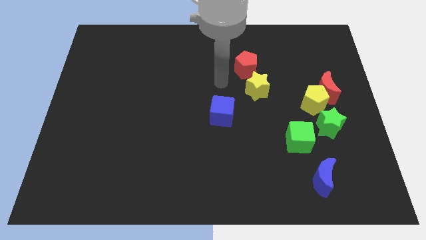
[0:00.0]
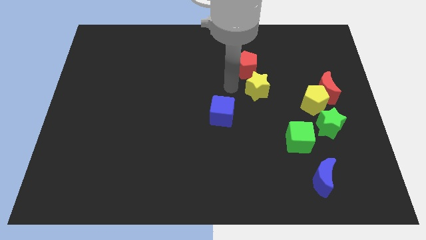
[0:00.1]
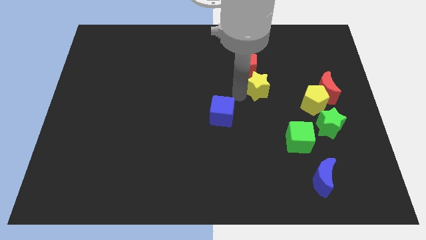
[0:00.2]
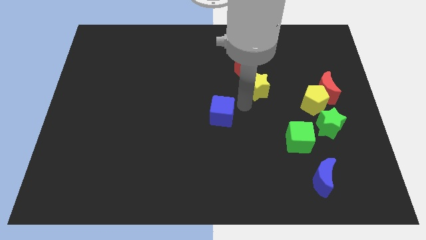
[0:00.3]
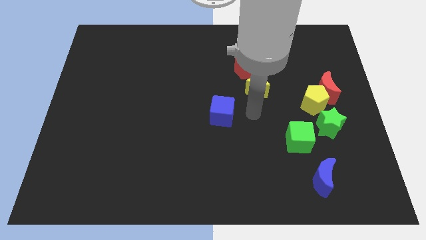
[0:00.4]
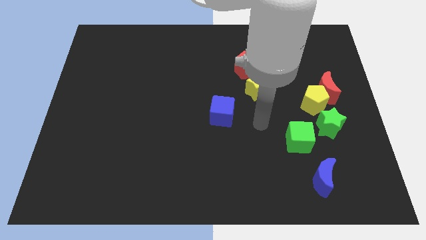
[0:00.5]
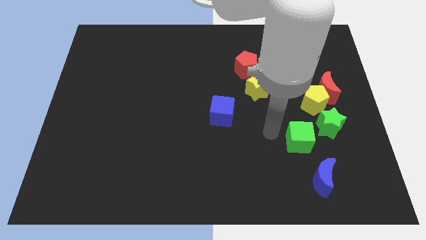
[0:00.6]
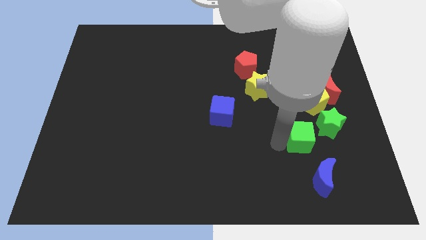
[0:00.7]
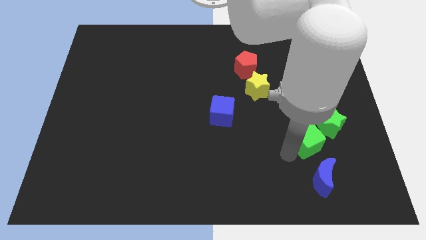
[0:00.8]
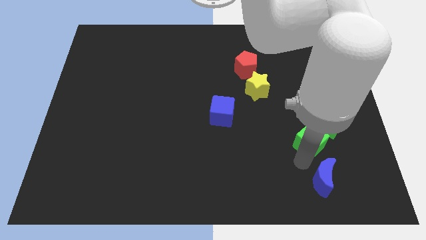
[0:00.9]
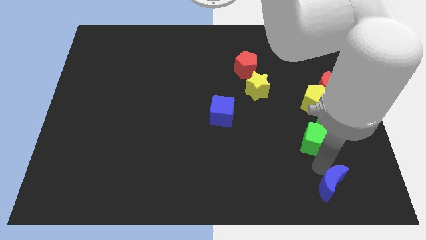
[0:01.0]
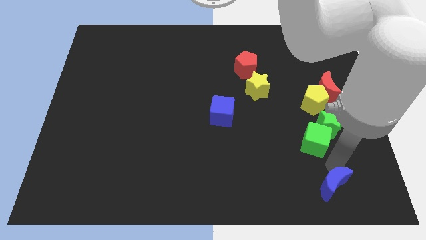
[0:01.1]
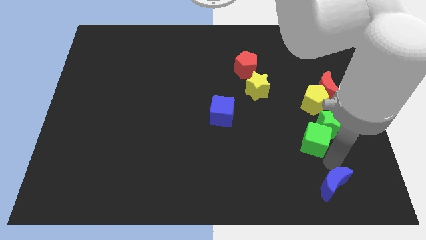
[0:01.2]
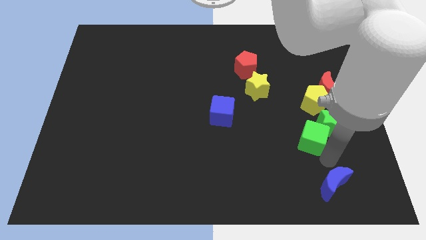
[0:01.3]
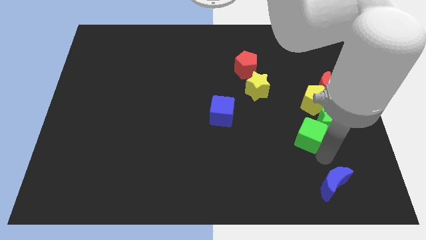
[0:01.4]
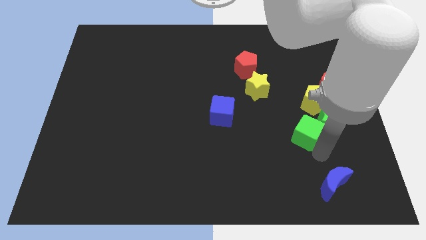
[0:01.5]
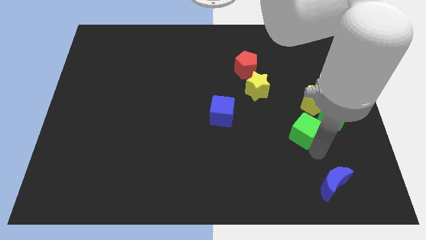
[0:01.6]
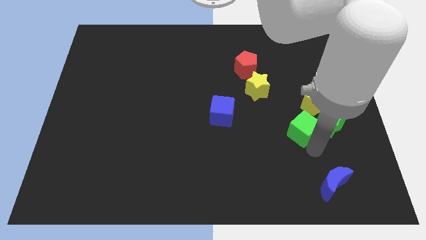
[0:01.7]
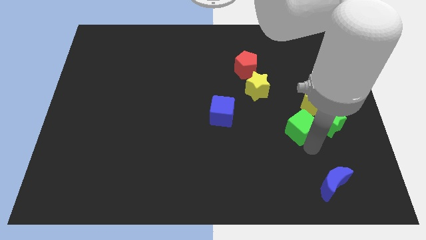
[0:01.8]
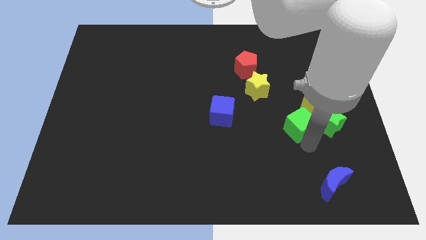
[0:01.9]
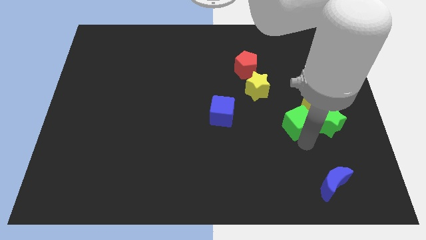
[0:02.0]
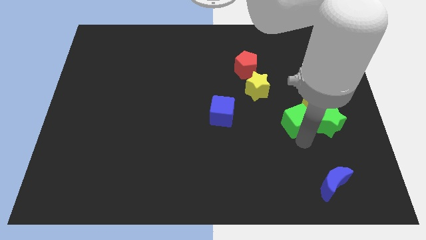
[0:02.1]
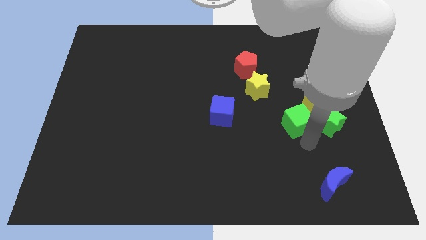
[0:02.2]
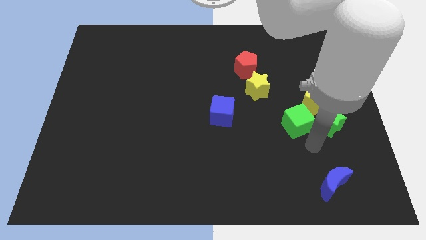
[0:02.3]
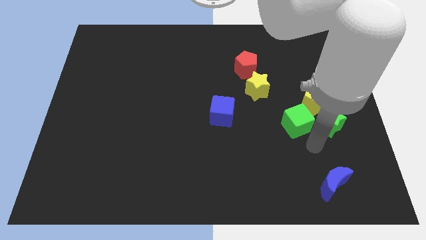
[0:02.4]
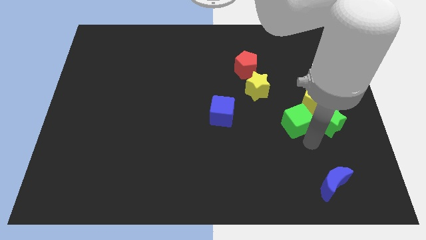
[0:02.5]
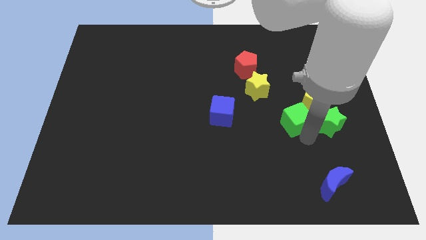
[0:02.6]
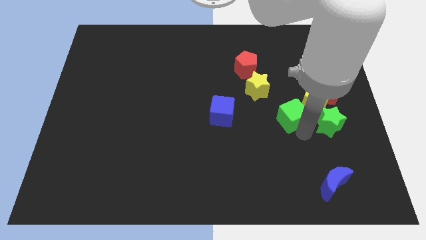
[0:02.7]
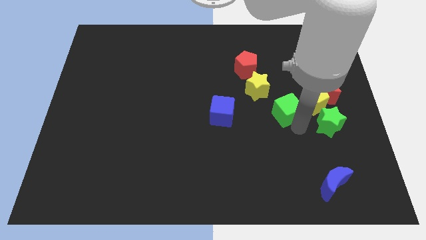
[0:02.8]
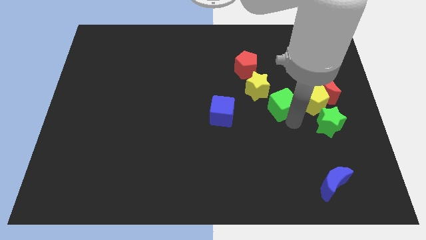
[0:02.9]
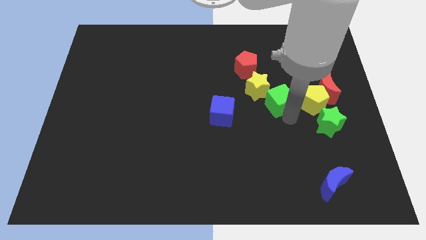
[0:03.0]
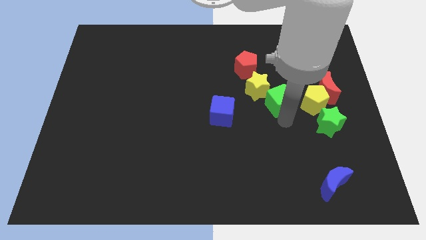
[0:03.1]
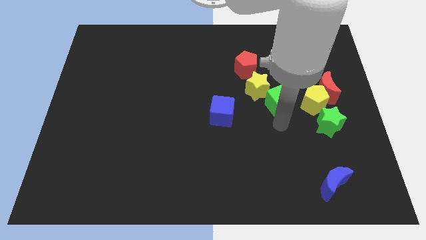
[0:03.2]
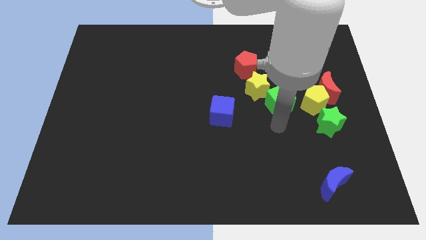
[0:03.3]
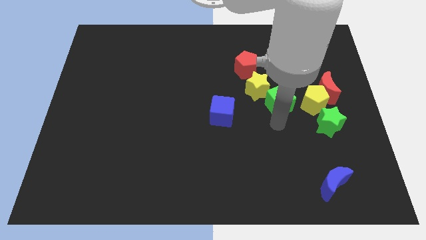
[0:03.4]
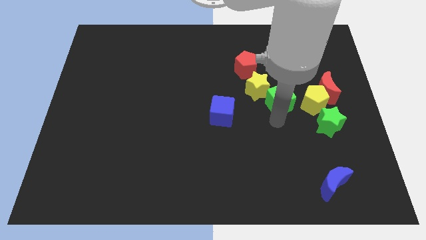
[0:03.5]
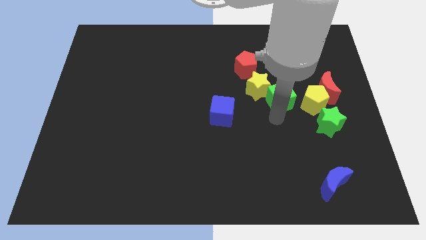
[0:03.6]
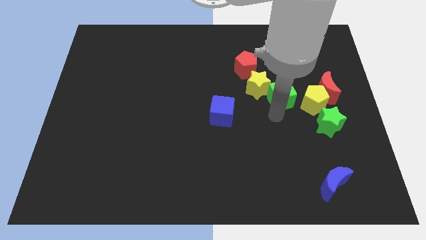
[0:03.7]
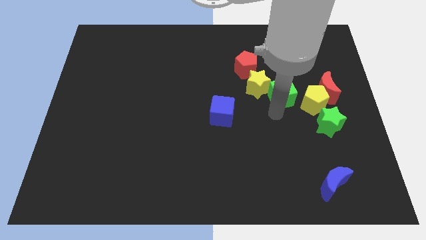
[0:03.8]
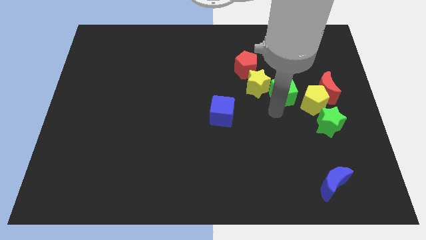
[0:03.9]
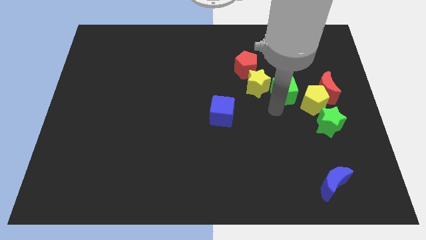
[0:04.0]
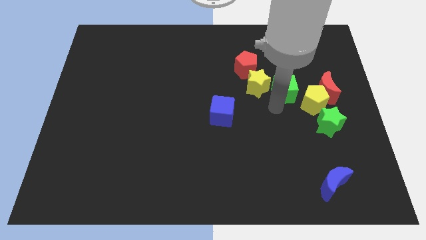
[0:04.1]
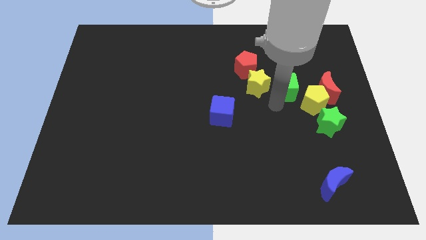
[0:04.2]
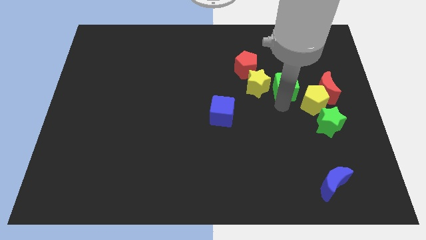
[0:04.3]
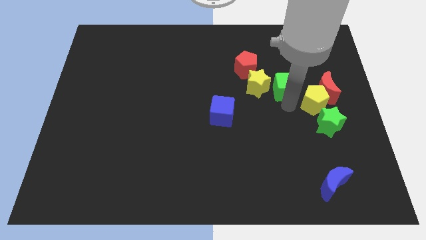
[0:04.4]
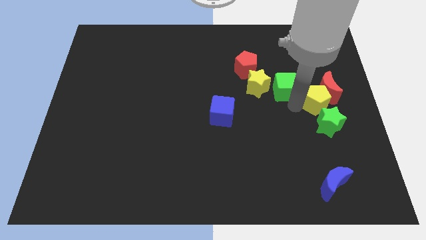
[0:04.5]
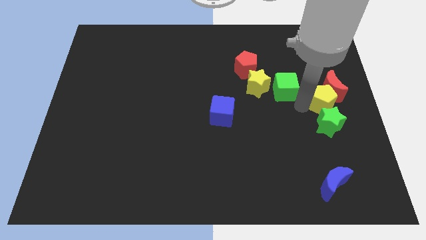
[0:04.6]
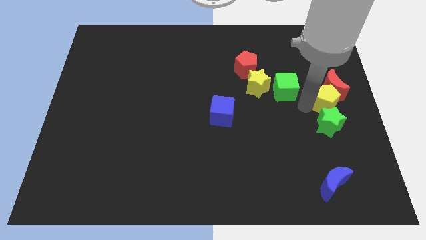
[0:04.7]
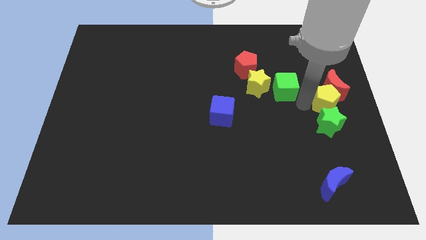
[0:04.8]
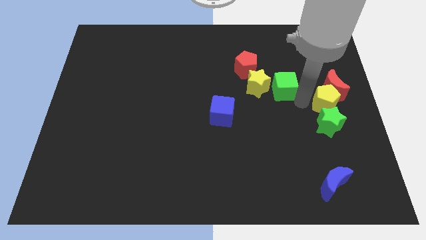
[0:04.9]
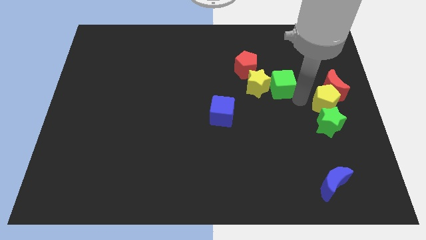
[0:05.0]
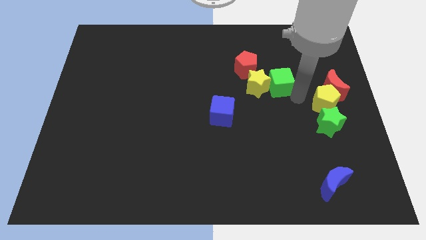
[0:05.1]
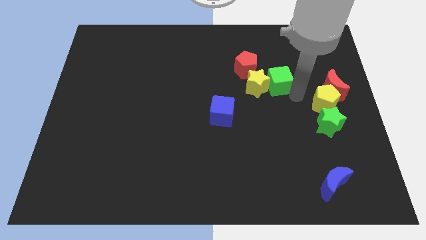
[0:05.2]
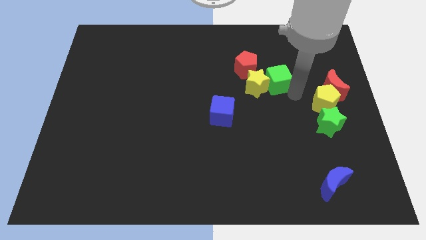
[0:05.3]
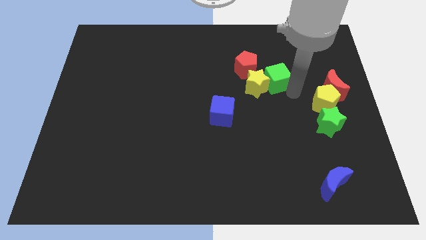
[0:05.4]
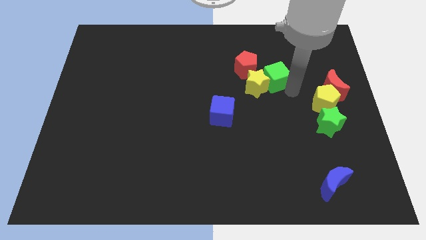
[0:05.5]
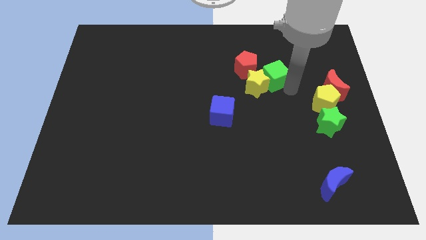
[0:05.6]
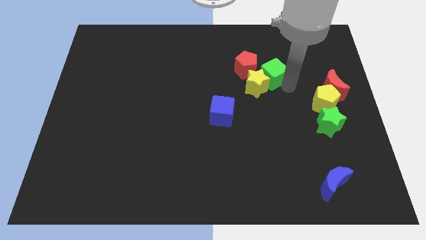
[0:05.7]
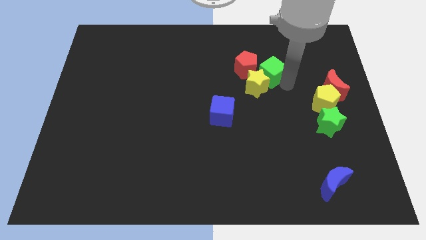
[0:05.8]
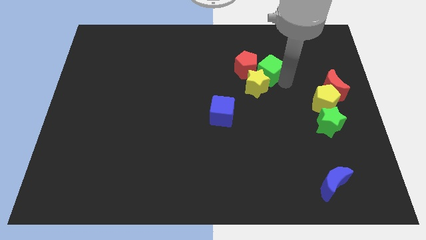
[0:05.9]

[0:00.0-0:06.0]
move the green cube close to the red pentagon

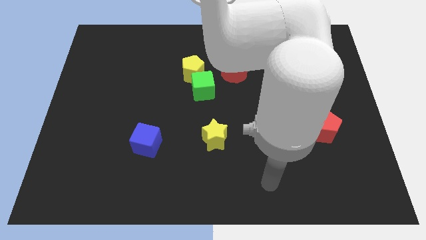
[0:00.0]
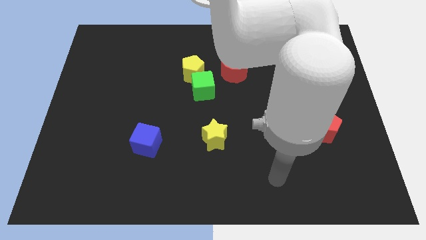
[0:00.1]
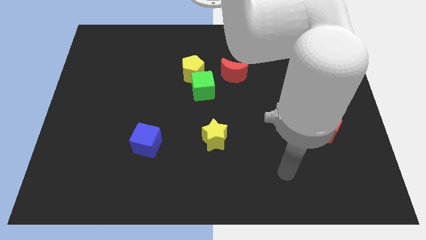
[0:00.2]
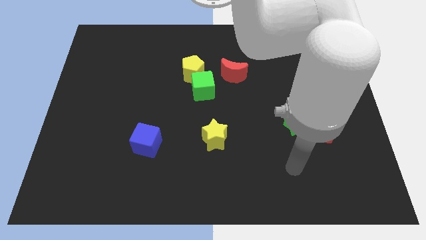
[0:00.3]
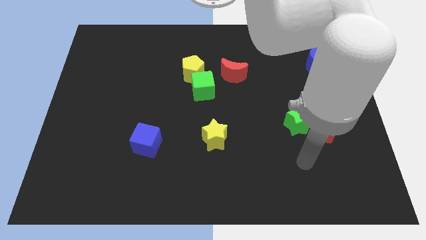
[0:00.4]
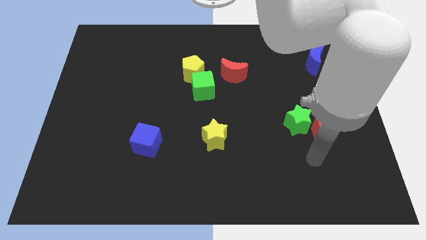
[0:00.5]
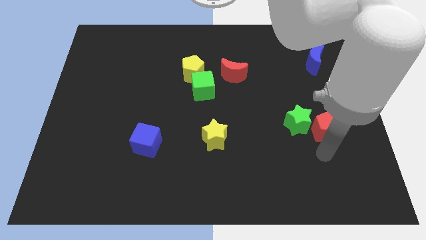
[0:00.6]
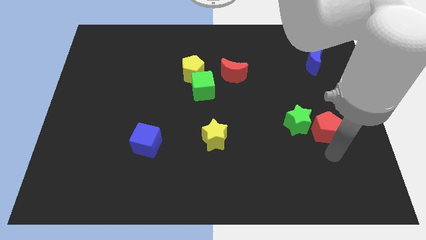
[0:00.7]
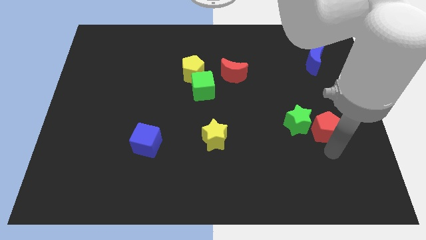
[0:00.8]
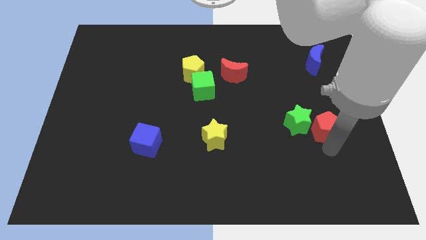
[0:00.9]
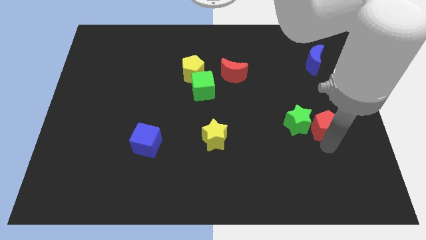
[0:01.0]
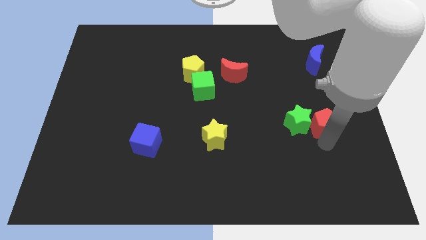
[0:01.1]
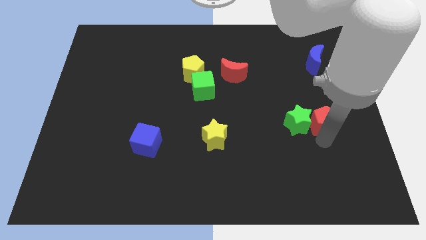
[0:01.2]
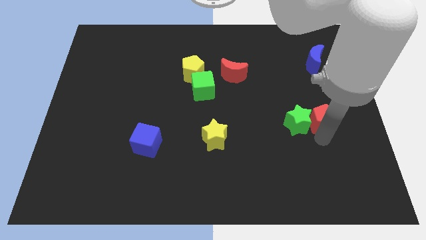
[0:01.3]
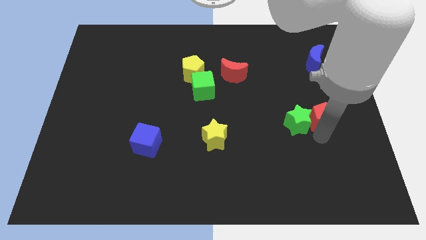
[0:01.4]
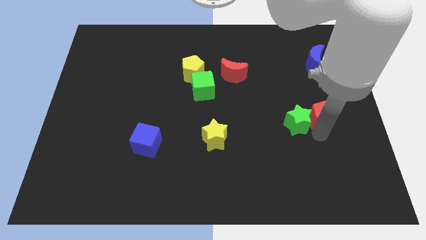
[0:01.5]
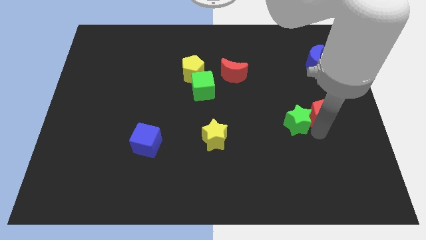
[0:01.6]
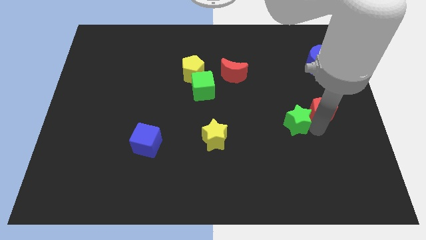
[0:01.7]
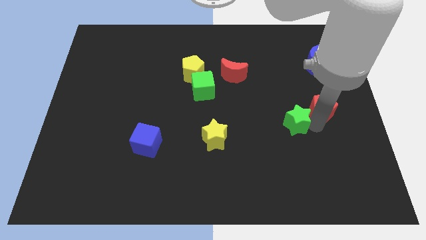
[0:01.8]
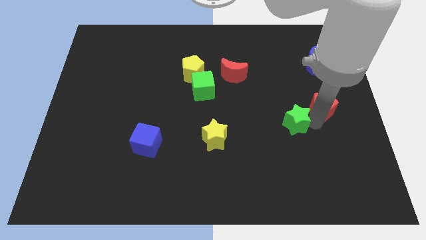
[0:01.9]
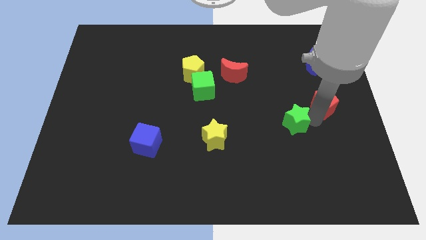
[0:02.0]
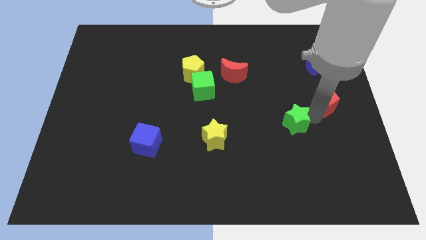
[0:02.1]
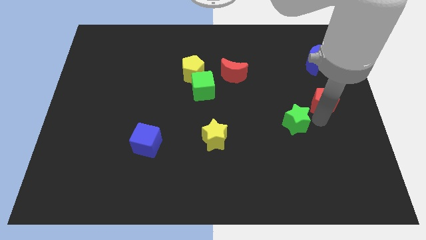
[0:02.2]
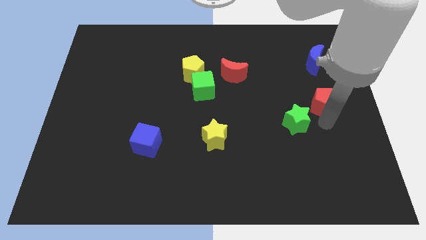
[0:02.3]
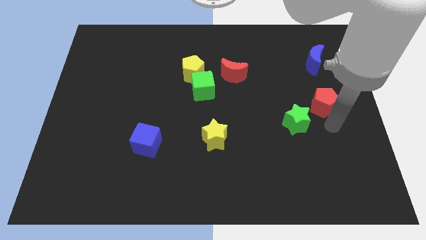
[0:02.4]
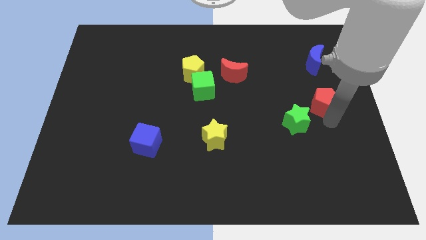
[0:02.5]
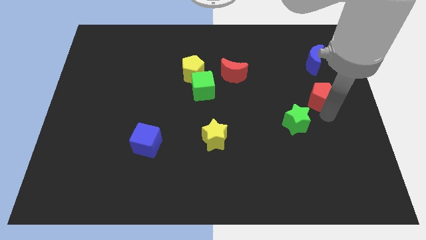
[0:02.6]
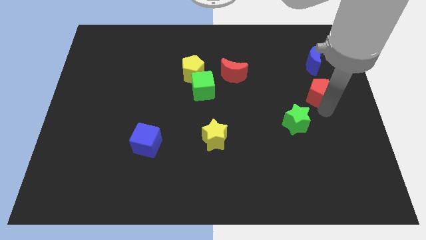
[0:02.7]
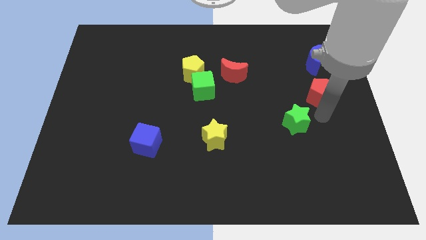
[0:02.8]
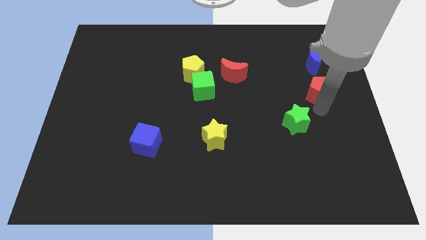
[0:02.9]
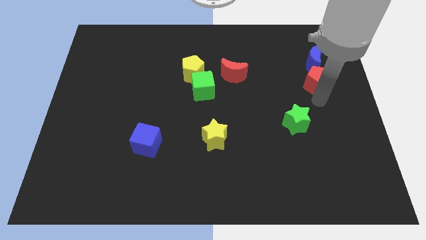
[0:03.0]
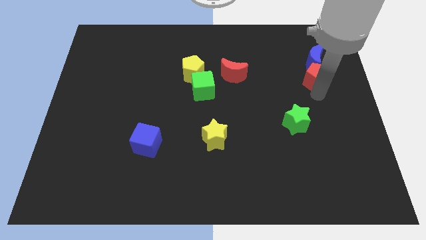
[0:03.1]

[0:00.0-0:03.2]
put the red pentagon next to the blue moon
